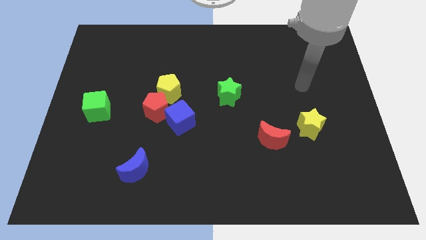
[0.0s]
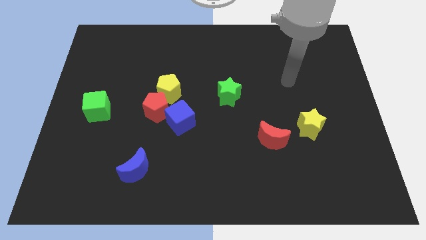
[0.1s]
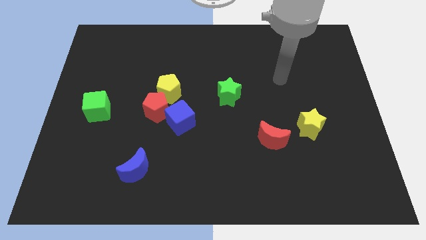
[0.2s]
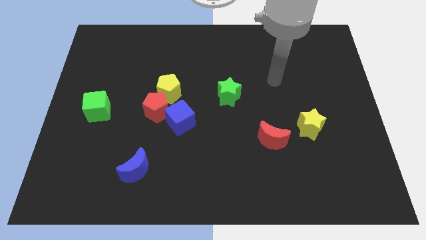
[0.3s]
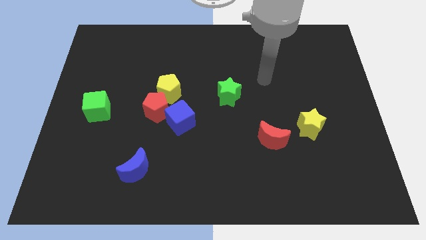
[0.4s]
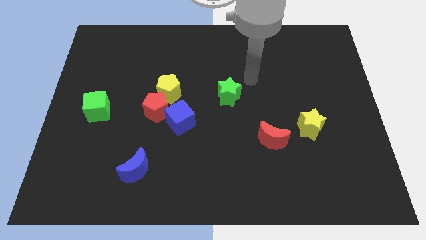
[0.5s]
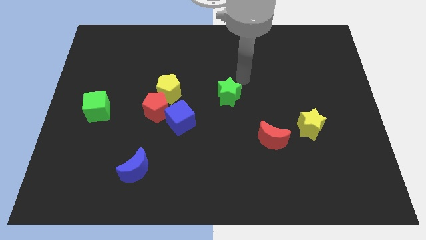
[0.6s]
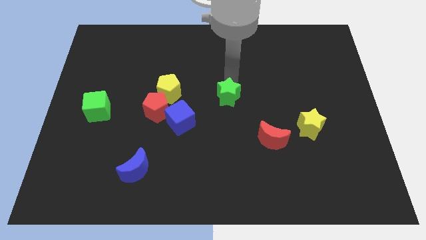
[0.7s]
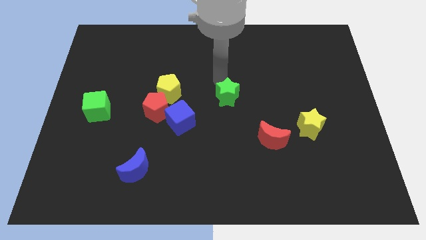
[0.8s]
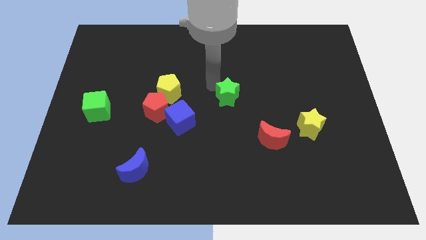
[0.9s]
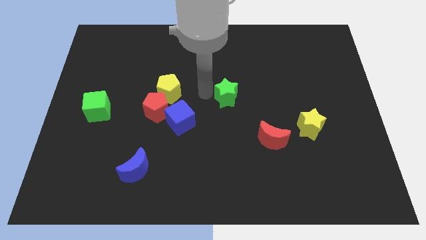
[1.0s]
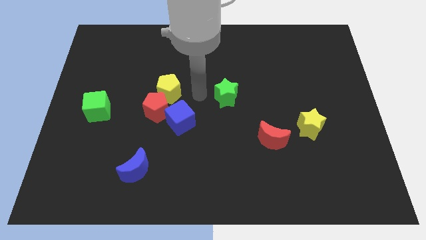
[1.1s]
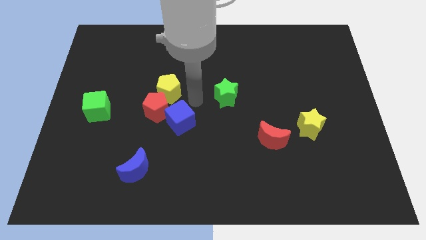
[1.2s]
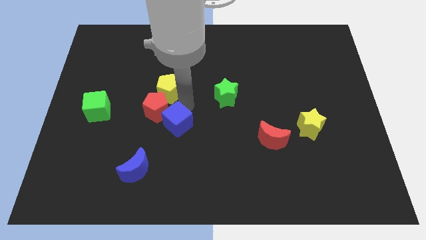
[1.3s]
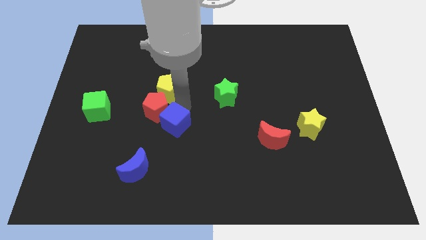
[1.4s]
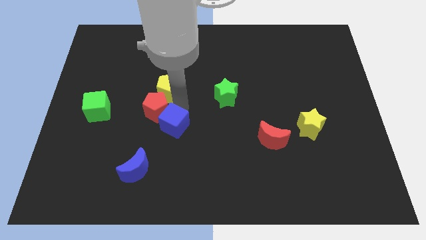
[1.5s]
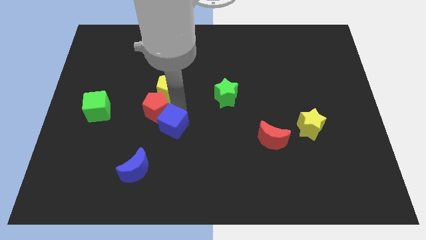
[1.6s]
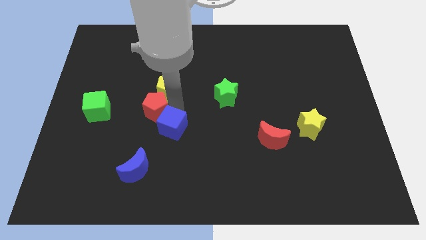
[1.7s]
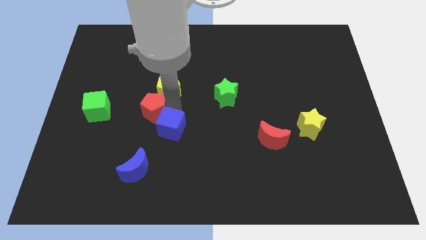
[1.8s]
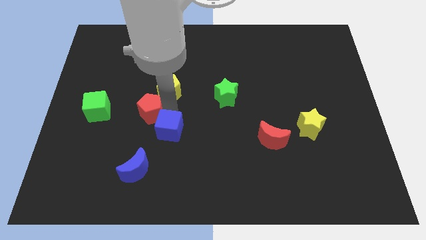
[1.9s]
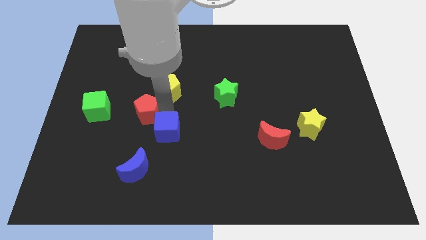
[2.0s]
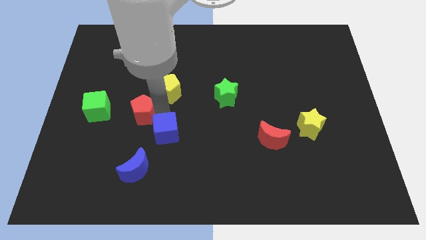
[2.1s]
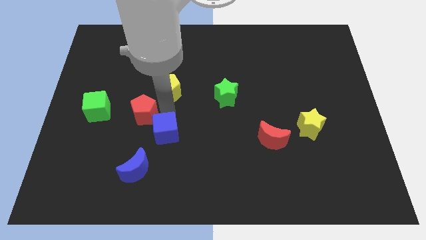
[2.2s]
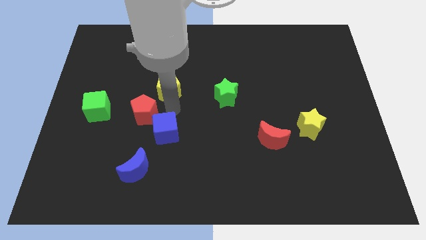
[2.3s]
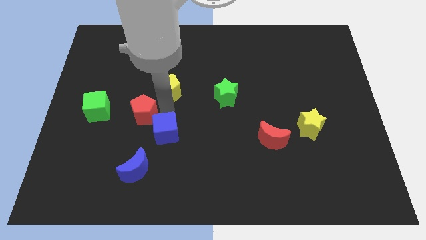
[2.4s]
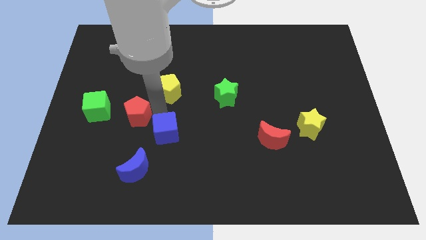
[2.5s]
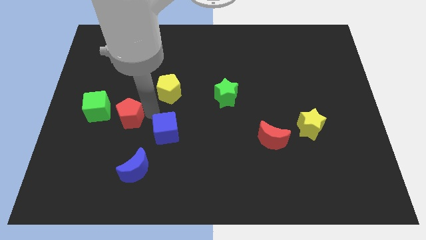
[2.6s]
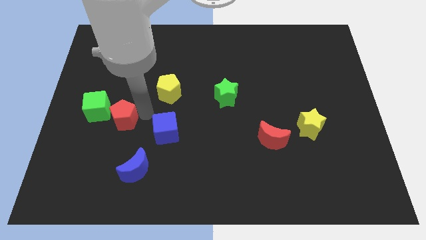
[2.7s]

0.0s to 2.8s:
separate the red pentagon from the yellow pentagon and blue cube

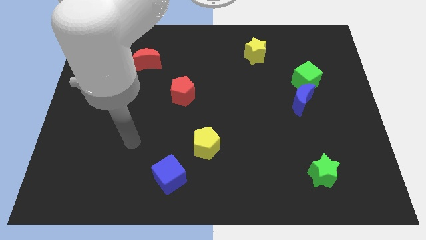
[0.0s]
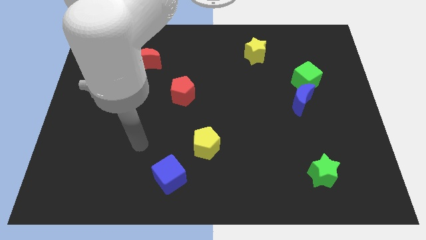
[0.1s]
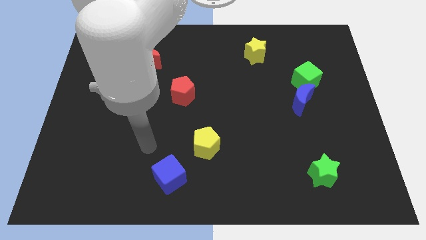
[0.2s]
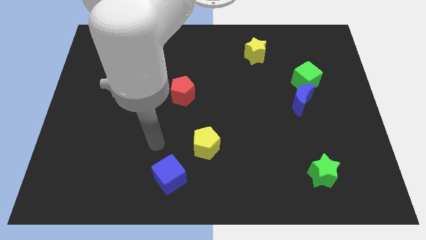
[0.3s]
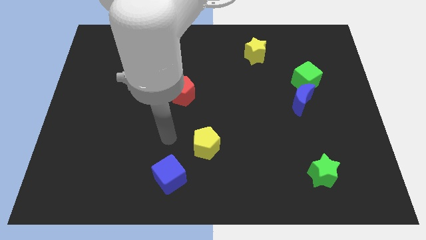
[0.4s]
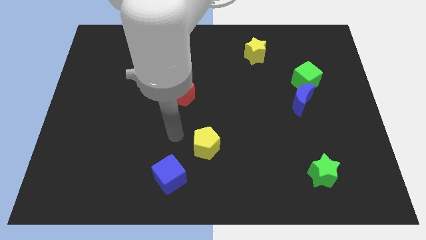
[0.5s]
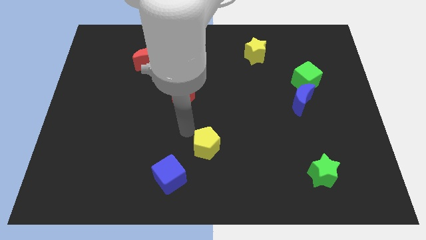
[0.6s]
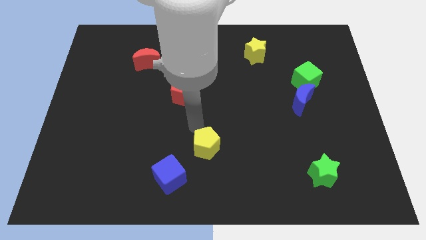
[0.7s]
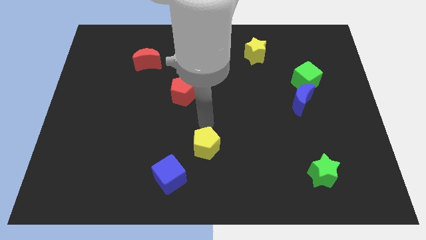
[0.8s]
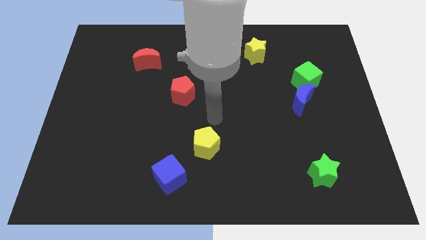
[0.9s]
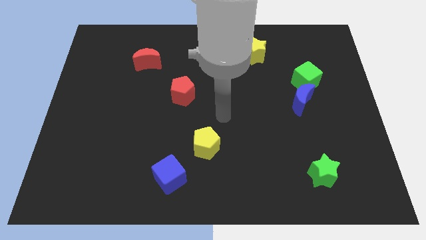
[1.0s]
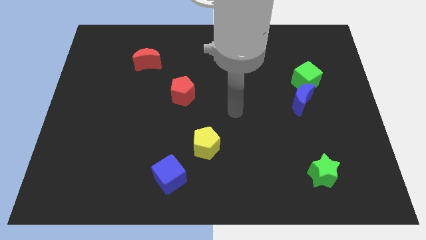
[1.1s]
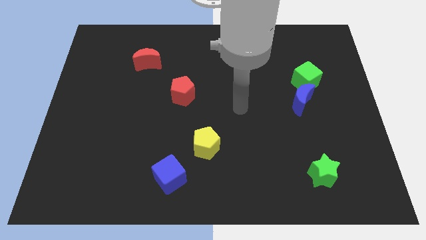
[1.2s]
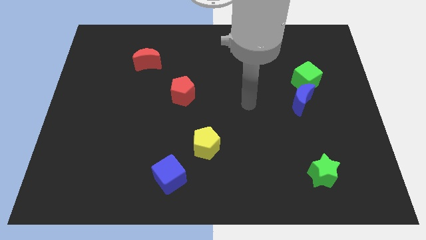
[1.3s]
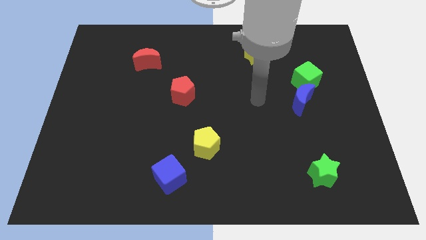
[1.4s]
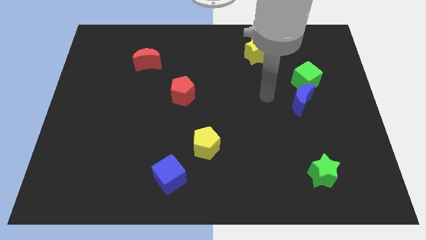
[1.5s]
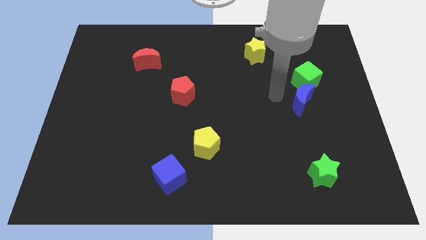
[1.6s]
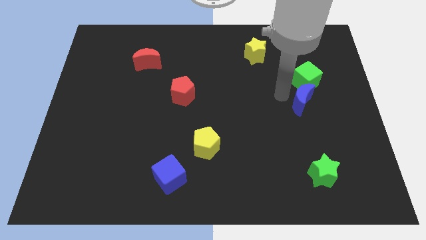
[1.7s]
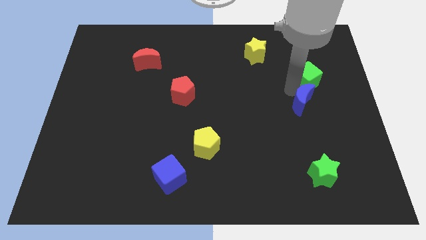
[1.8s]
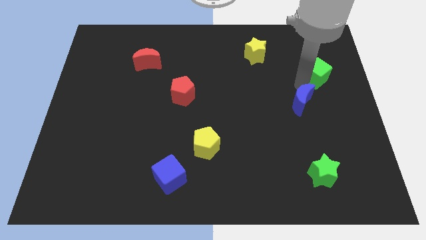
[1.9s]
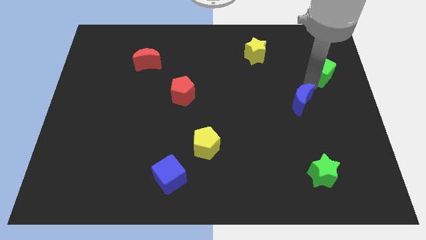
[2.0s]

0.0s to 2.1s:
pull the blue moon apart from the green cube

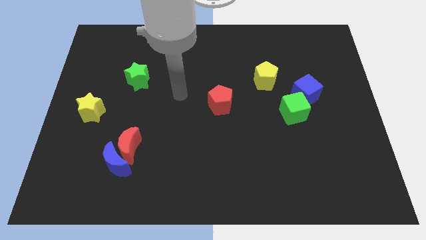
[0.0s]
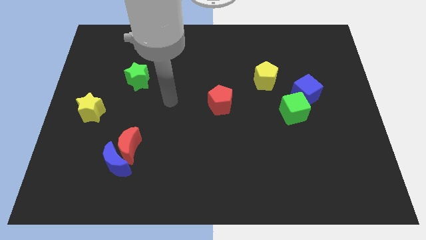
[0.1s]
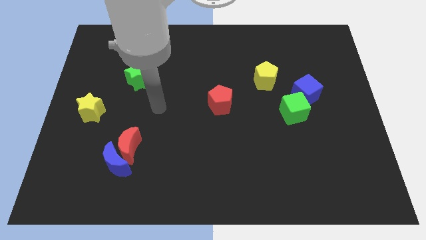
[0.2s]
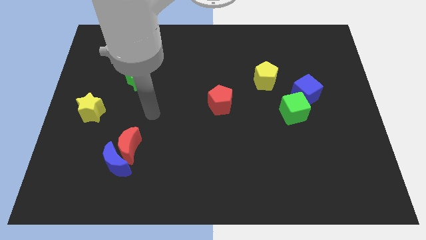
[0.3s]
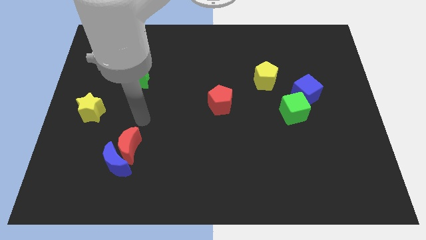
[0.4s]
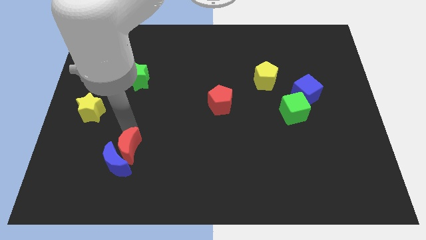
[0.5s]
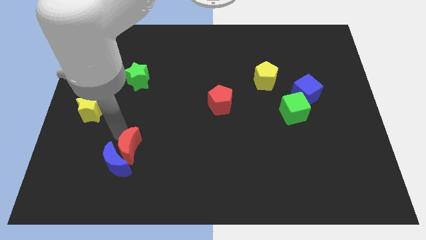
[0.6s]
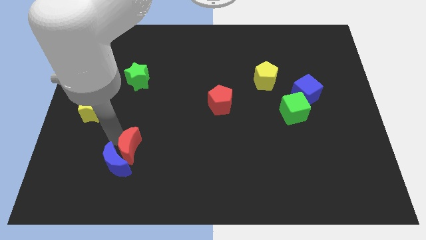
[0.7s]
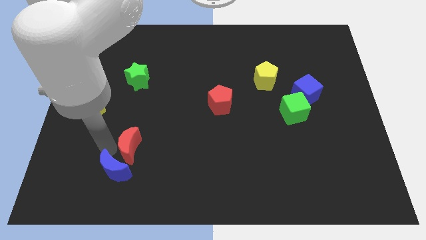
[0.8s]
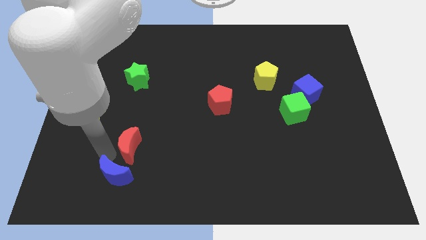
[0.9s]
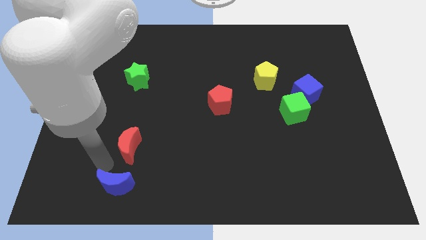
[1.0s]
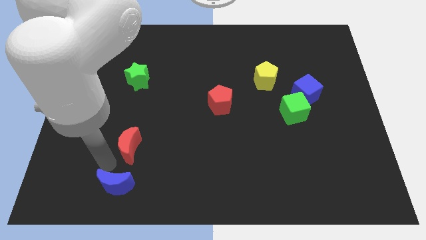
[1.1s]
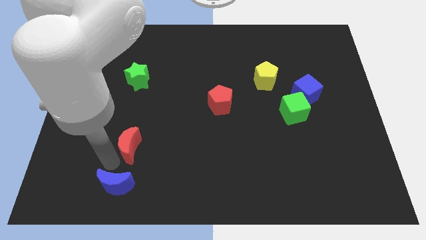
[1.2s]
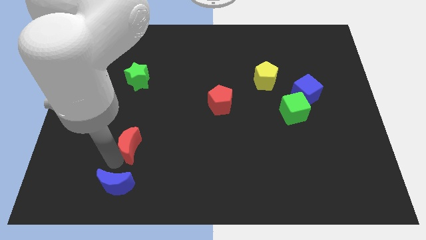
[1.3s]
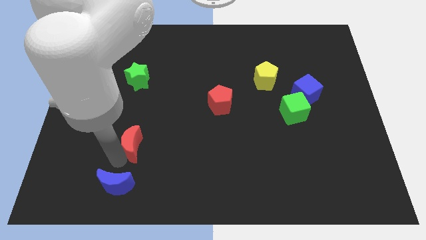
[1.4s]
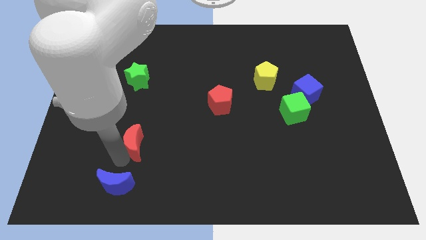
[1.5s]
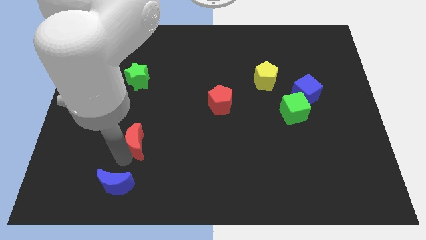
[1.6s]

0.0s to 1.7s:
separate the red moon from the blue moon

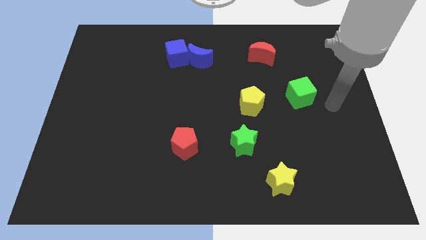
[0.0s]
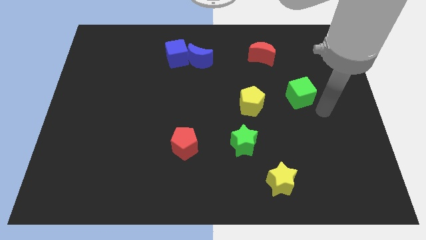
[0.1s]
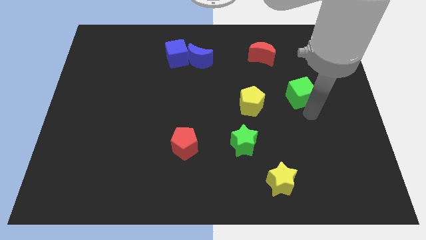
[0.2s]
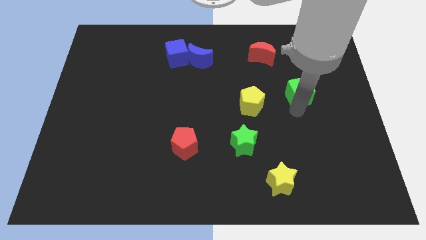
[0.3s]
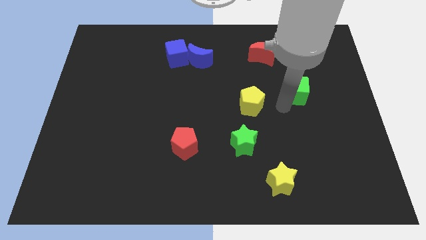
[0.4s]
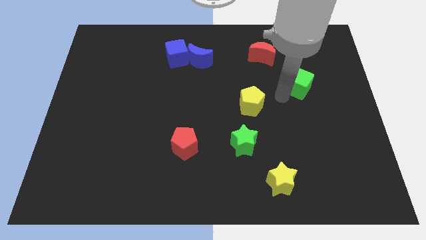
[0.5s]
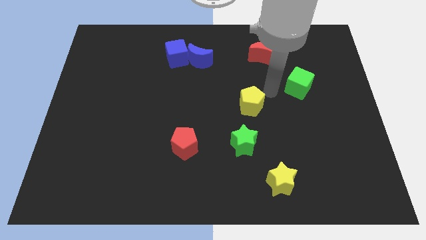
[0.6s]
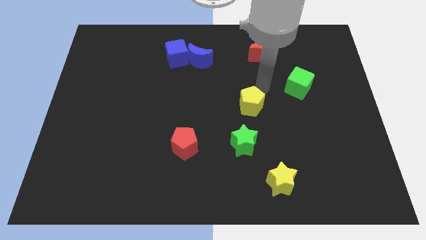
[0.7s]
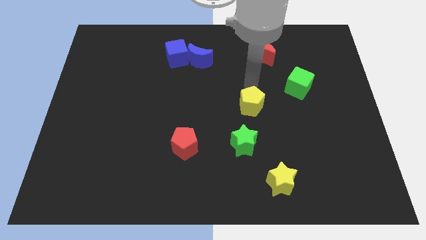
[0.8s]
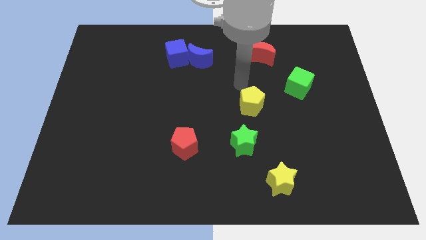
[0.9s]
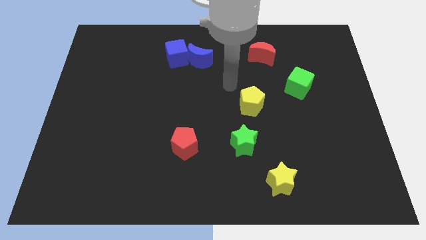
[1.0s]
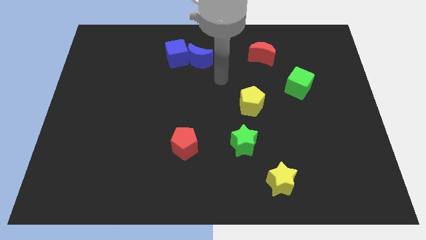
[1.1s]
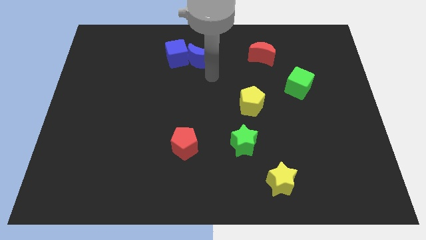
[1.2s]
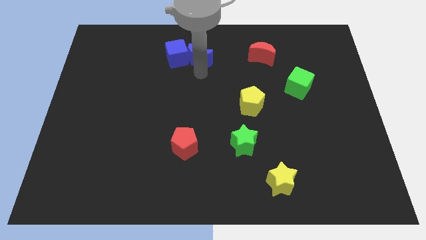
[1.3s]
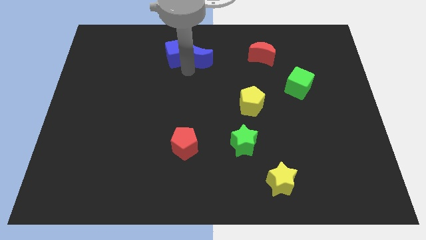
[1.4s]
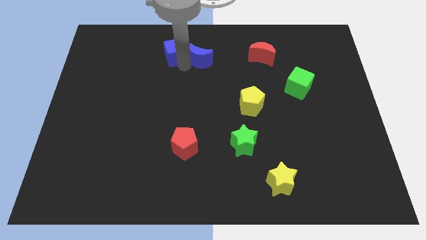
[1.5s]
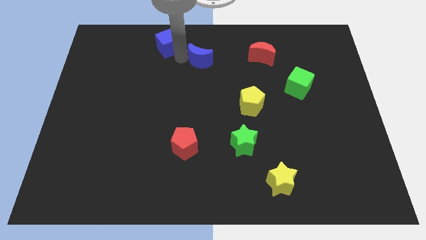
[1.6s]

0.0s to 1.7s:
pull the blue moon apart from the blue cube

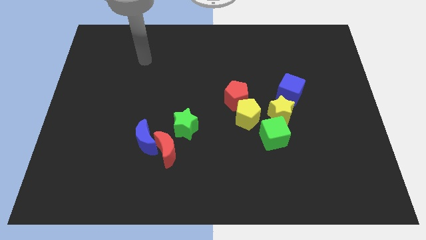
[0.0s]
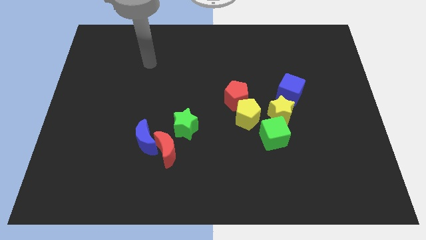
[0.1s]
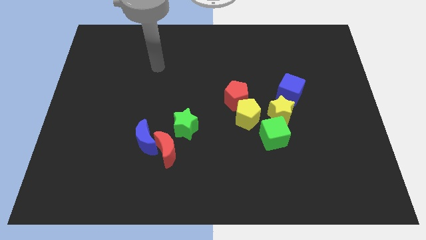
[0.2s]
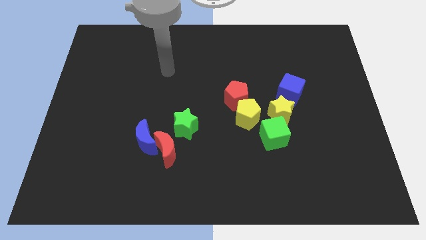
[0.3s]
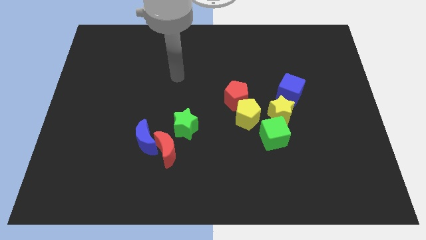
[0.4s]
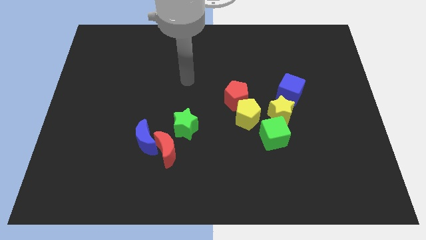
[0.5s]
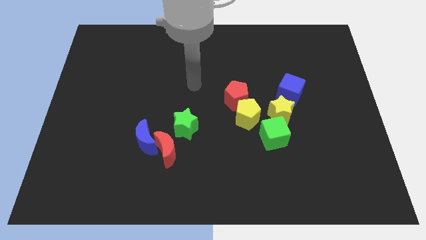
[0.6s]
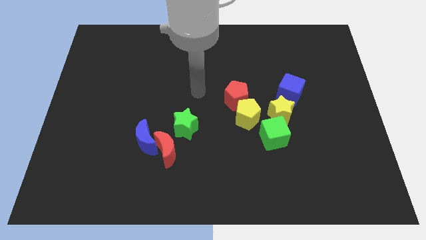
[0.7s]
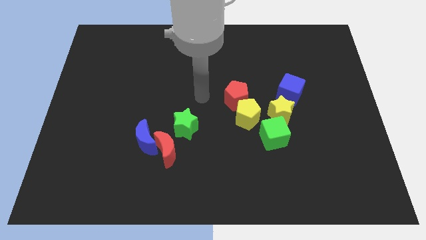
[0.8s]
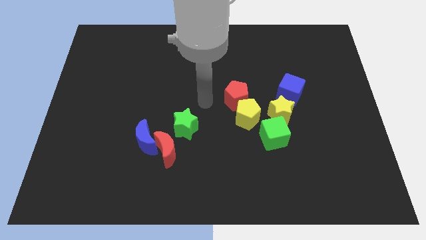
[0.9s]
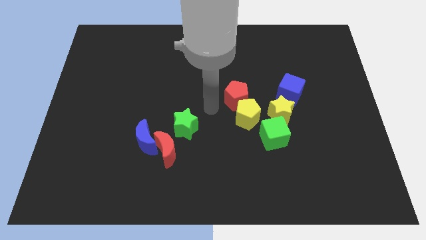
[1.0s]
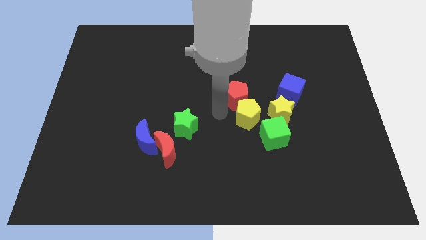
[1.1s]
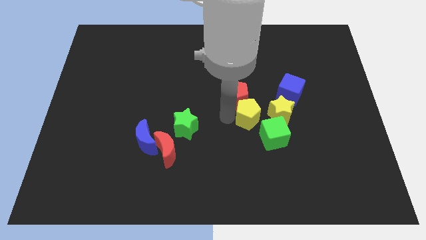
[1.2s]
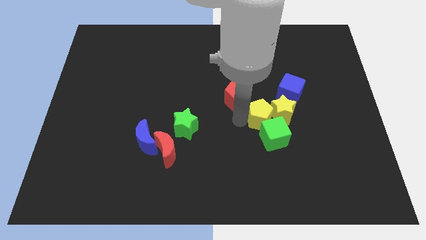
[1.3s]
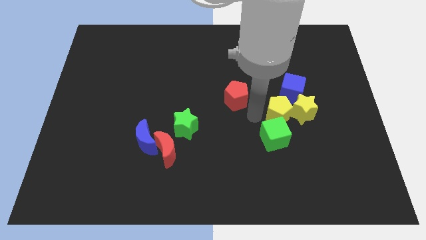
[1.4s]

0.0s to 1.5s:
pull the red pentagon apart from the yellow pentagon
